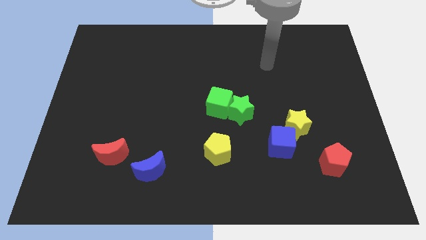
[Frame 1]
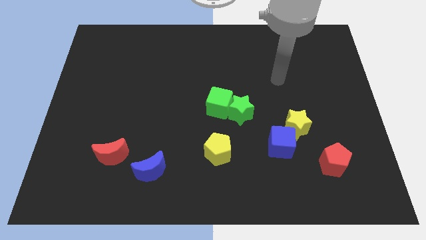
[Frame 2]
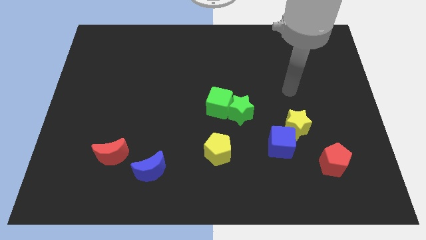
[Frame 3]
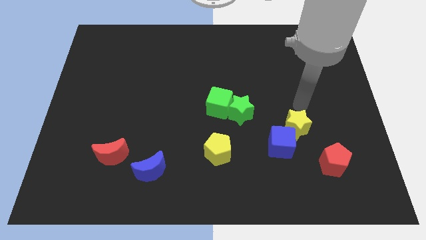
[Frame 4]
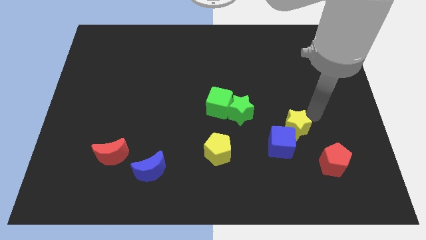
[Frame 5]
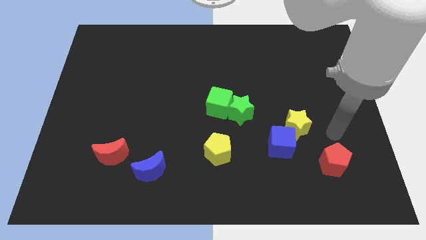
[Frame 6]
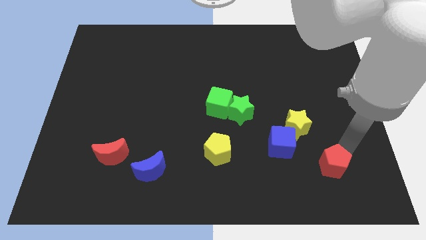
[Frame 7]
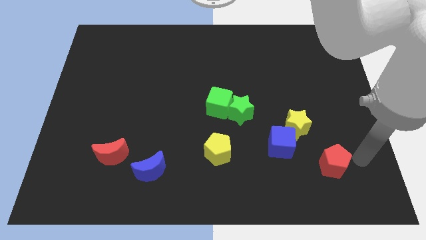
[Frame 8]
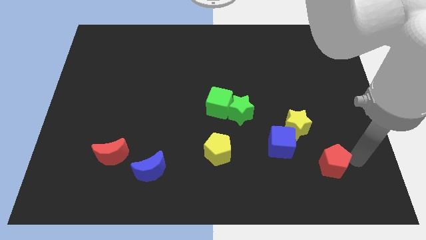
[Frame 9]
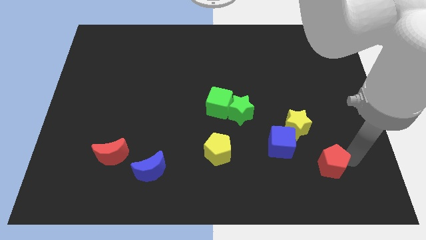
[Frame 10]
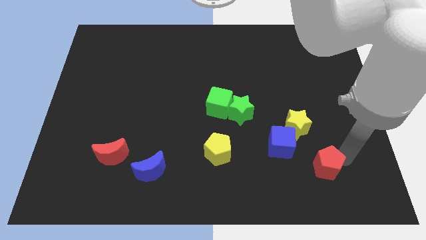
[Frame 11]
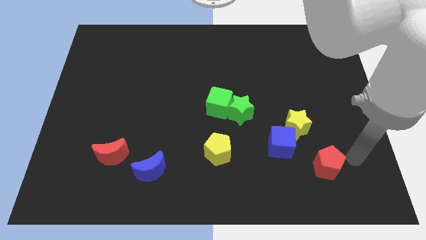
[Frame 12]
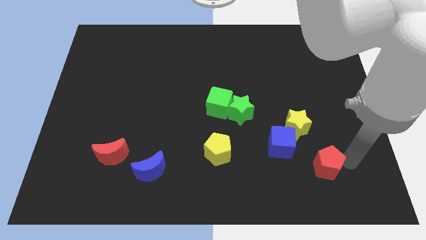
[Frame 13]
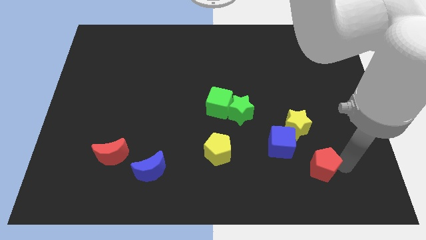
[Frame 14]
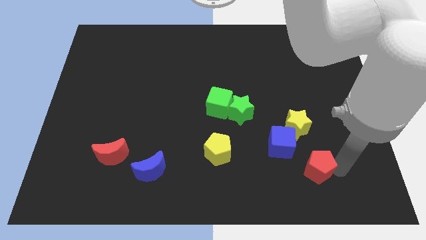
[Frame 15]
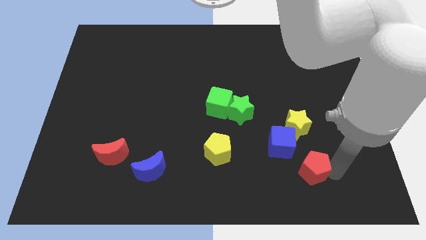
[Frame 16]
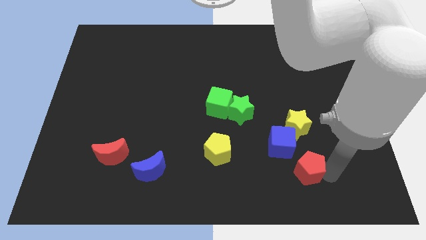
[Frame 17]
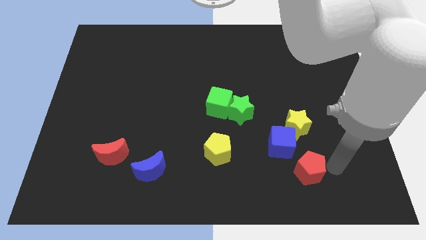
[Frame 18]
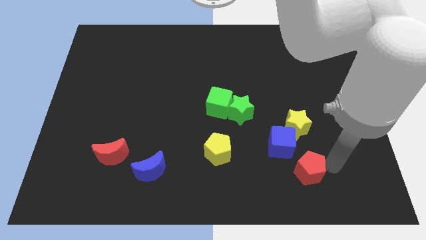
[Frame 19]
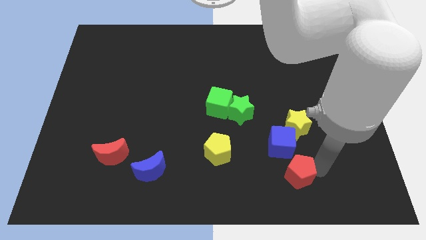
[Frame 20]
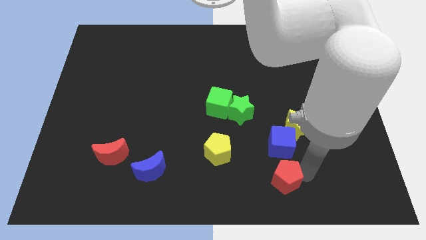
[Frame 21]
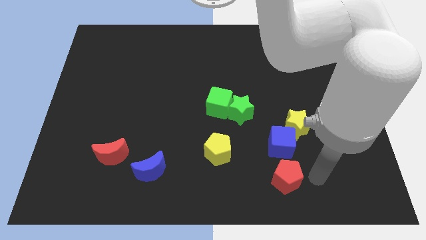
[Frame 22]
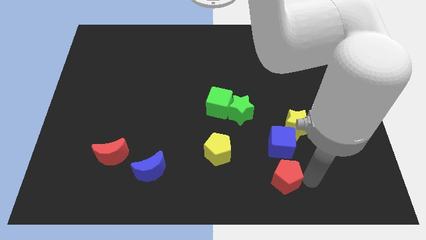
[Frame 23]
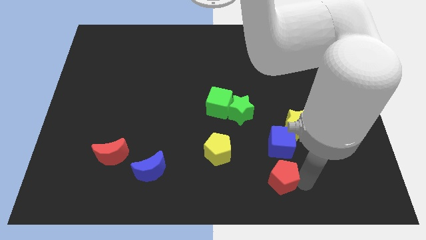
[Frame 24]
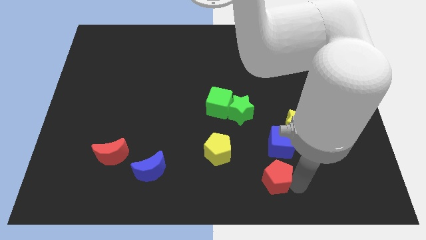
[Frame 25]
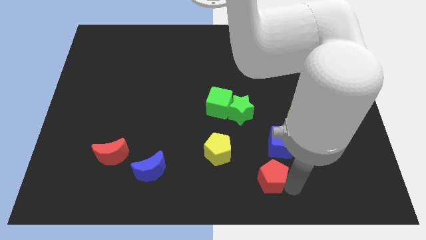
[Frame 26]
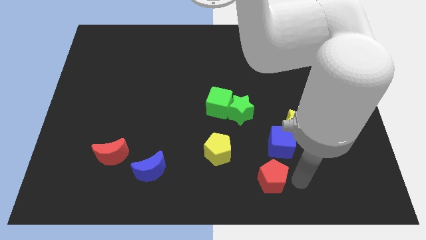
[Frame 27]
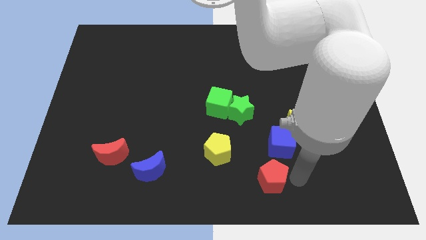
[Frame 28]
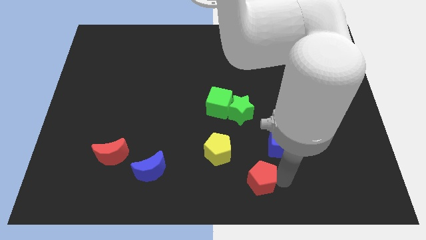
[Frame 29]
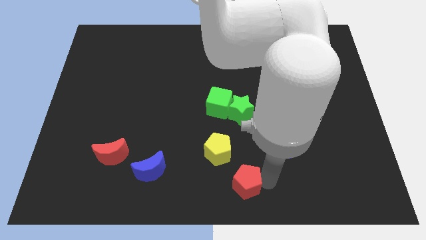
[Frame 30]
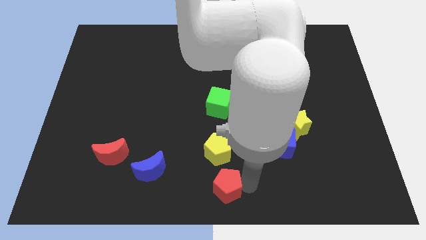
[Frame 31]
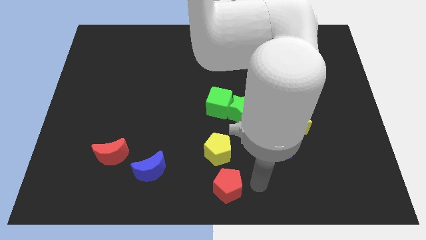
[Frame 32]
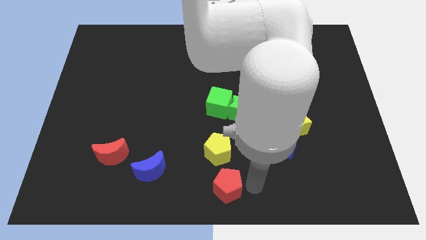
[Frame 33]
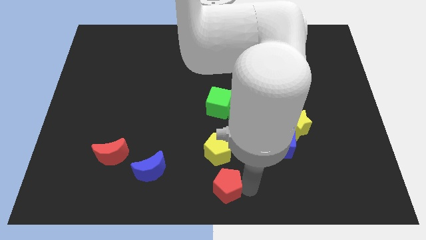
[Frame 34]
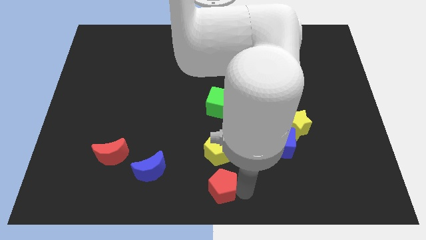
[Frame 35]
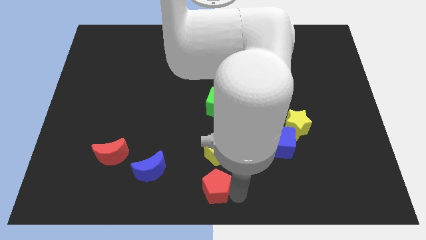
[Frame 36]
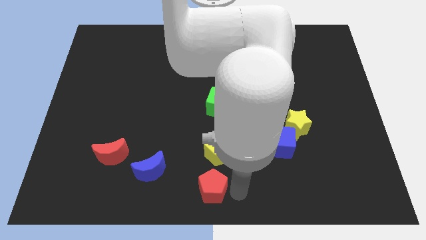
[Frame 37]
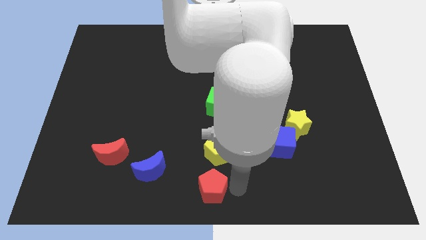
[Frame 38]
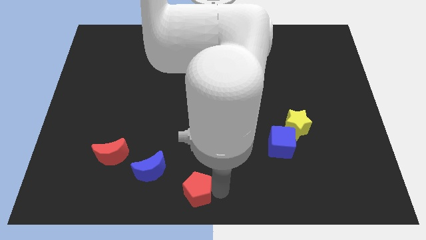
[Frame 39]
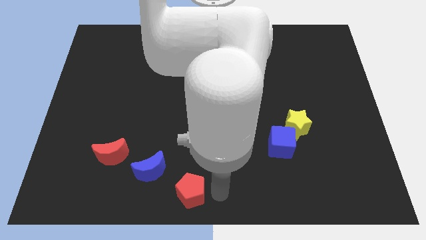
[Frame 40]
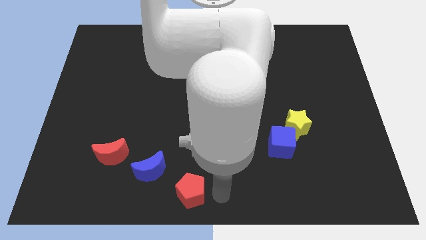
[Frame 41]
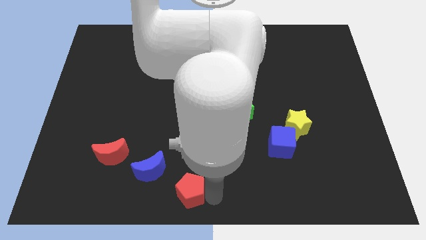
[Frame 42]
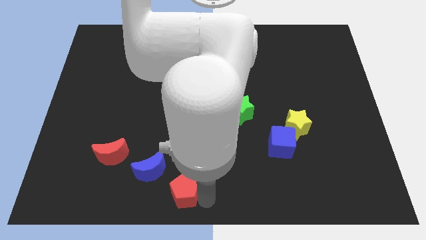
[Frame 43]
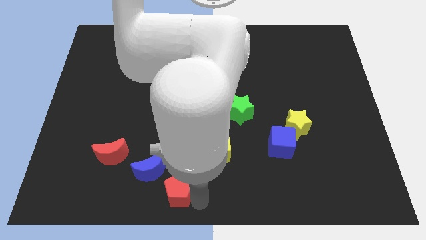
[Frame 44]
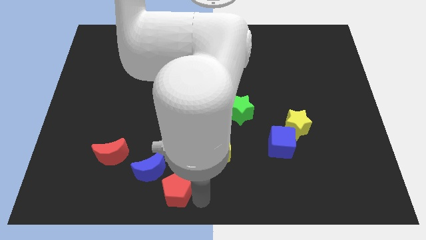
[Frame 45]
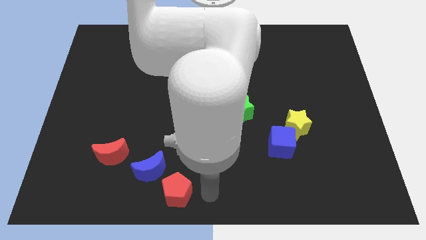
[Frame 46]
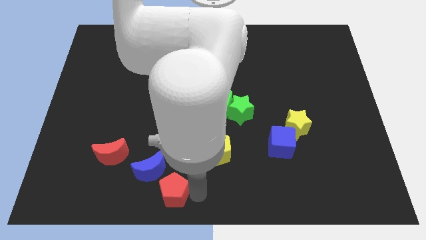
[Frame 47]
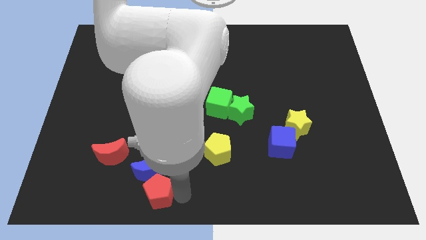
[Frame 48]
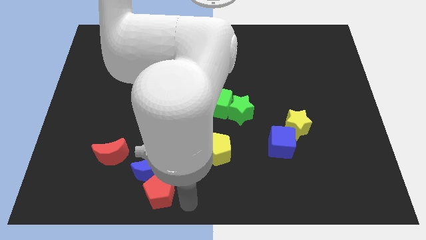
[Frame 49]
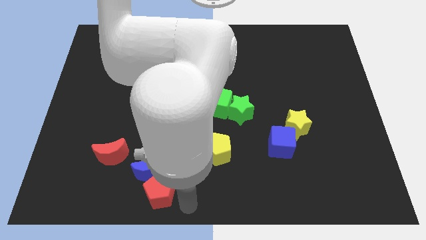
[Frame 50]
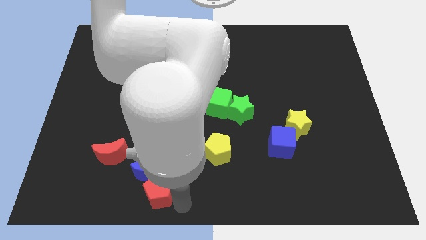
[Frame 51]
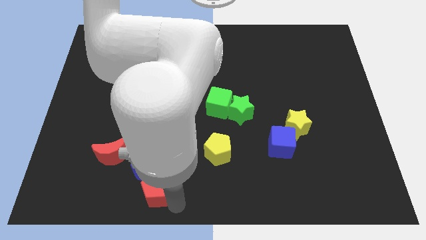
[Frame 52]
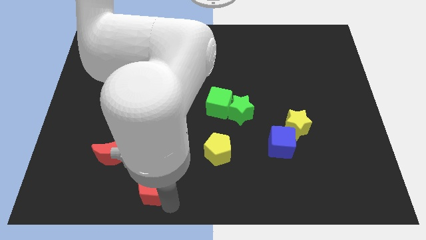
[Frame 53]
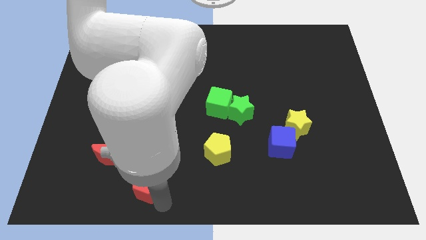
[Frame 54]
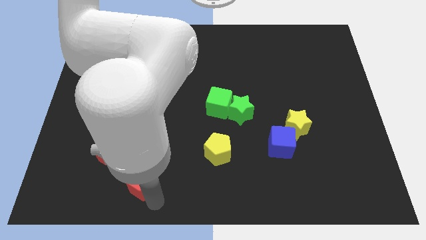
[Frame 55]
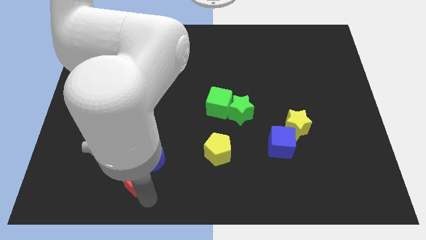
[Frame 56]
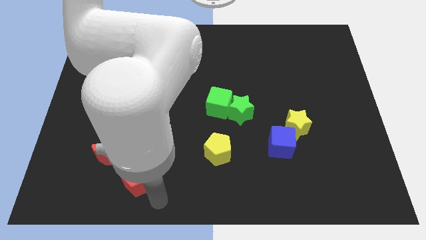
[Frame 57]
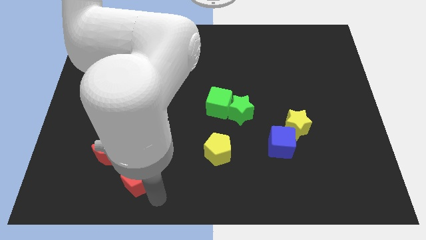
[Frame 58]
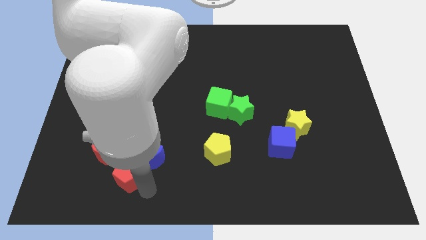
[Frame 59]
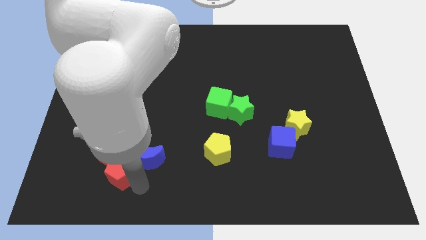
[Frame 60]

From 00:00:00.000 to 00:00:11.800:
push the red pentagon close to the red moon

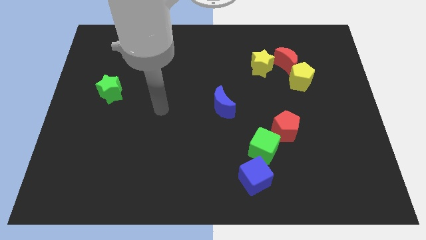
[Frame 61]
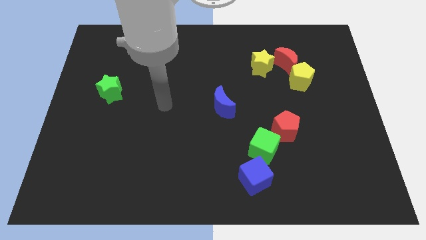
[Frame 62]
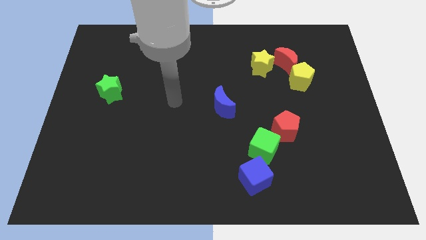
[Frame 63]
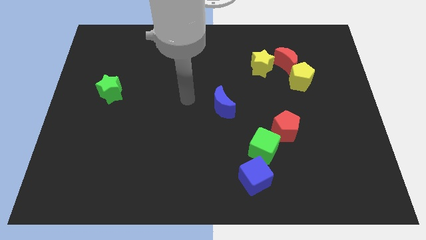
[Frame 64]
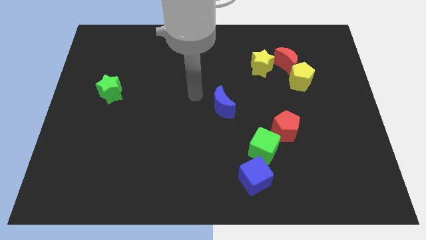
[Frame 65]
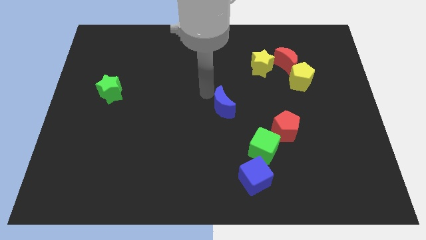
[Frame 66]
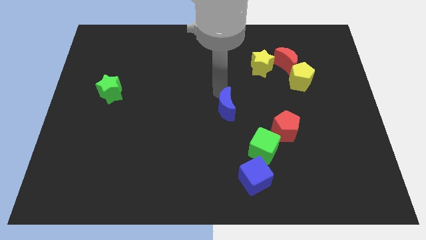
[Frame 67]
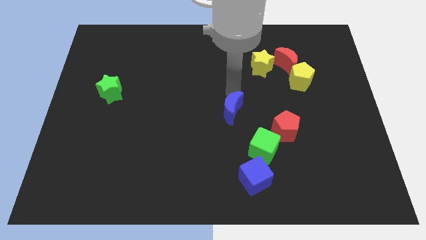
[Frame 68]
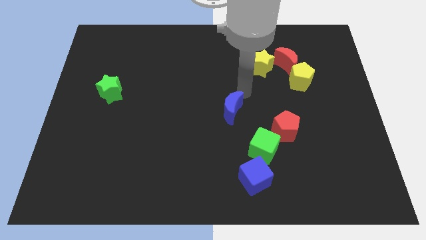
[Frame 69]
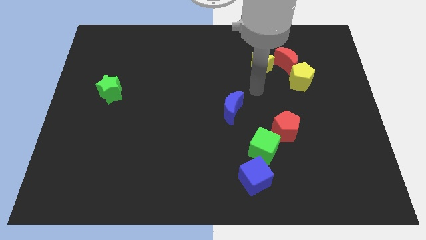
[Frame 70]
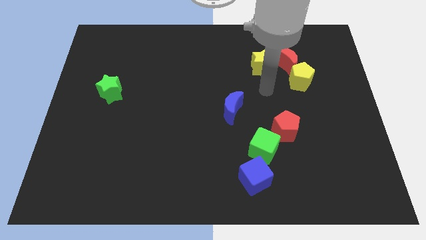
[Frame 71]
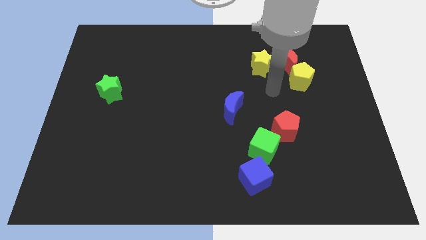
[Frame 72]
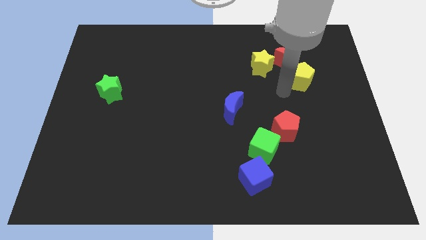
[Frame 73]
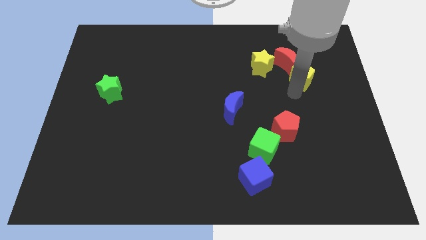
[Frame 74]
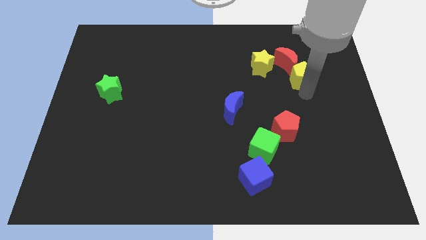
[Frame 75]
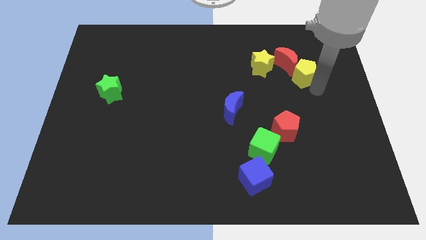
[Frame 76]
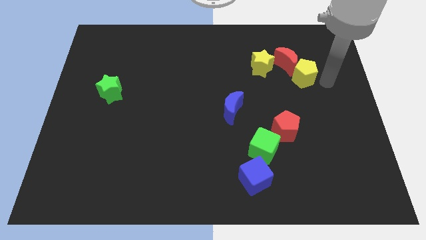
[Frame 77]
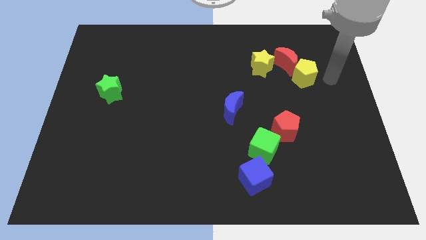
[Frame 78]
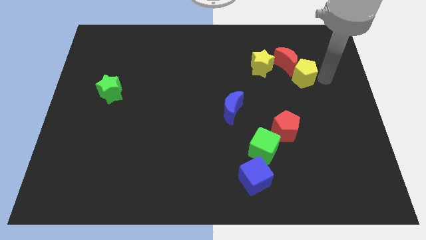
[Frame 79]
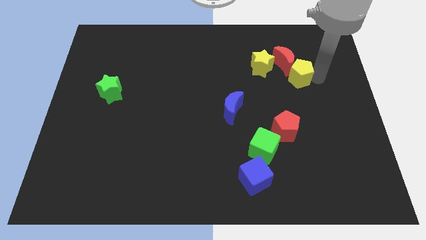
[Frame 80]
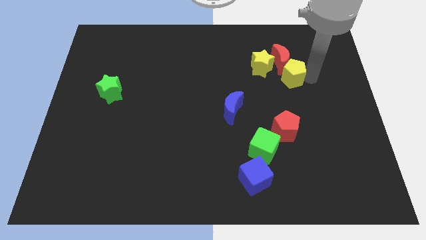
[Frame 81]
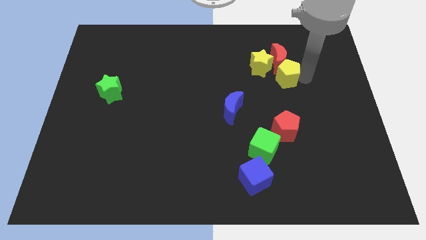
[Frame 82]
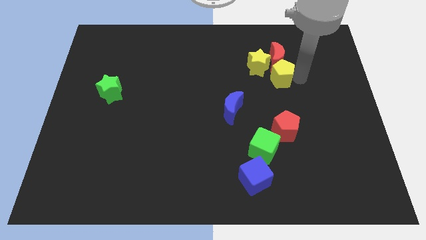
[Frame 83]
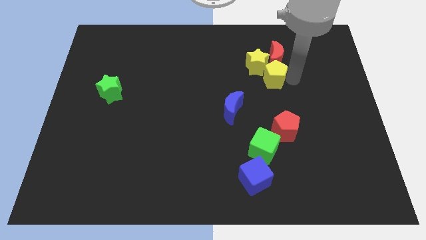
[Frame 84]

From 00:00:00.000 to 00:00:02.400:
put the yellow pentagon towards the yellow star
